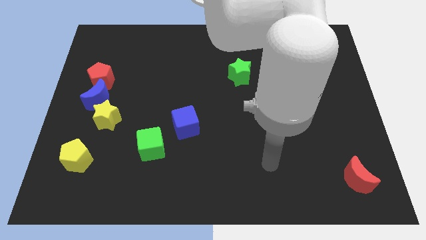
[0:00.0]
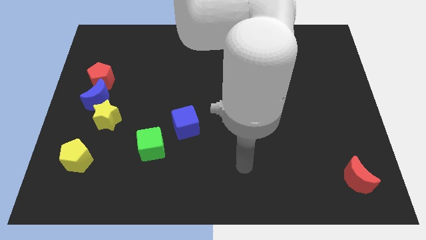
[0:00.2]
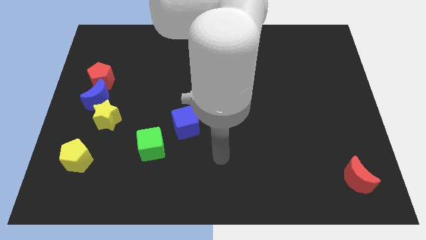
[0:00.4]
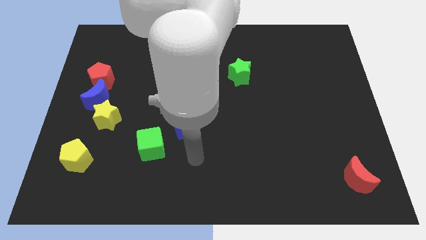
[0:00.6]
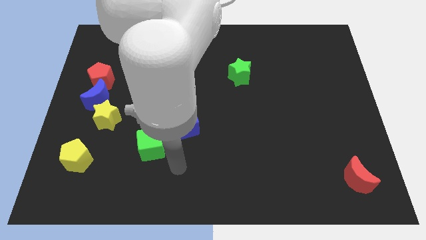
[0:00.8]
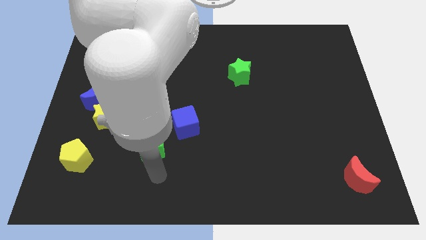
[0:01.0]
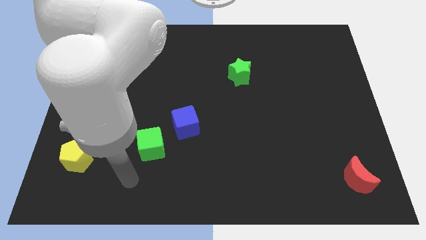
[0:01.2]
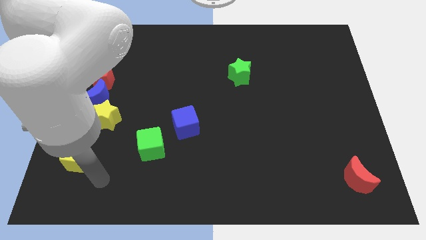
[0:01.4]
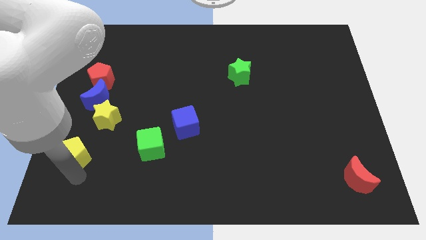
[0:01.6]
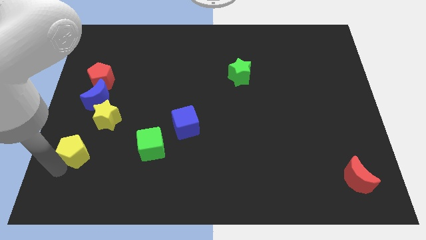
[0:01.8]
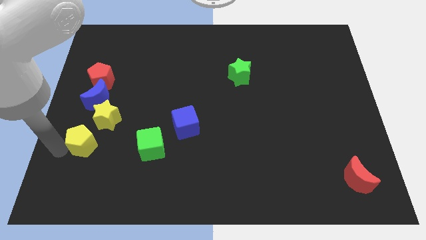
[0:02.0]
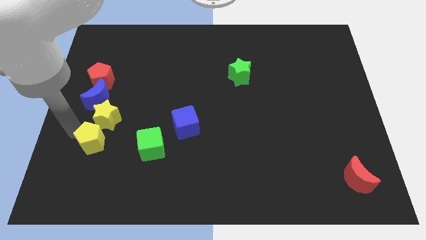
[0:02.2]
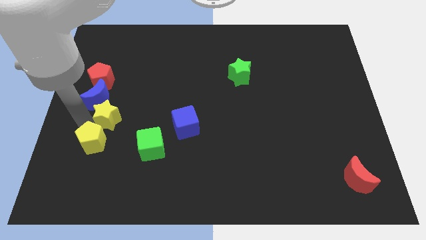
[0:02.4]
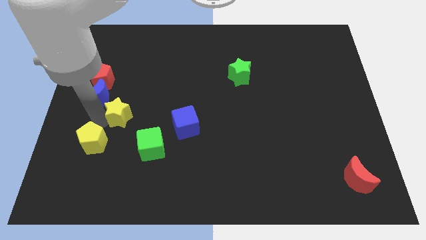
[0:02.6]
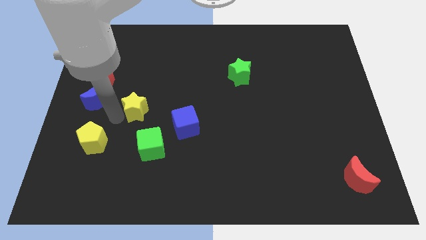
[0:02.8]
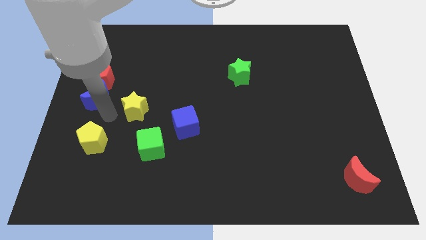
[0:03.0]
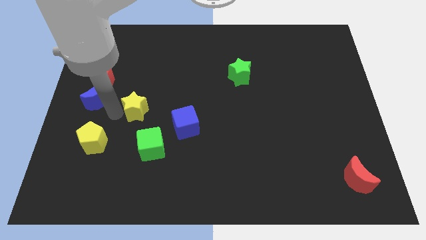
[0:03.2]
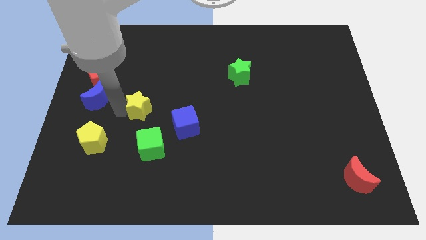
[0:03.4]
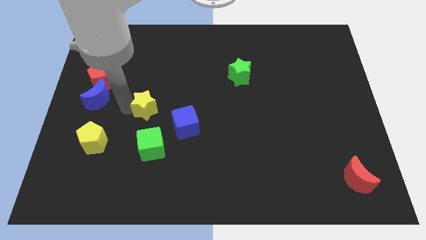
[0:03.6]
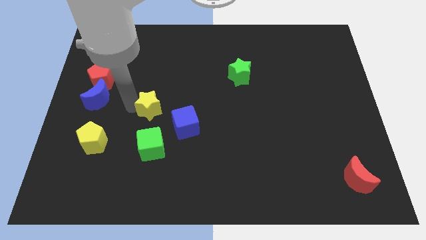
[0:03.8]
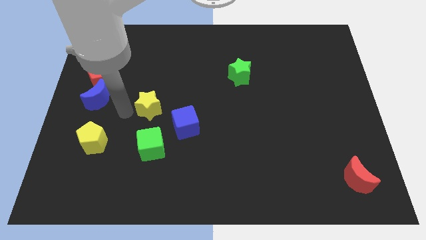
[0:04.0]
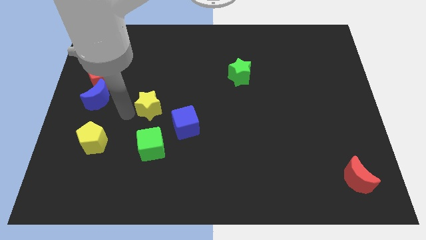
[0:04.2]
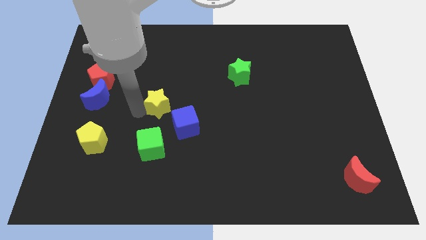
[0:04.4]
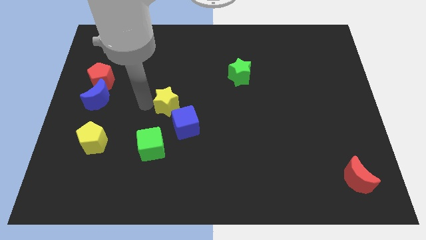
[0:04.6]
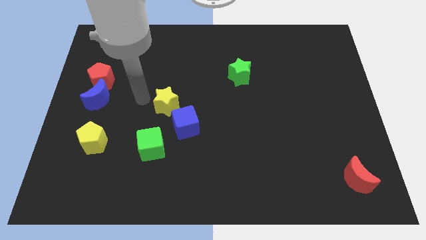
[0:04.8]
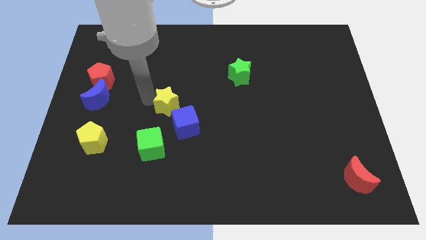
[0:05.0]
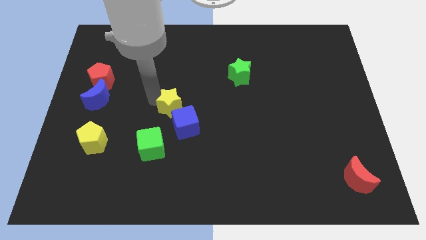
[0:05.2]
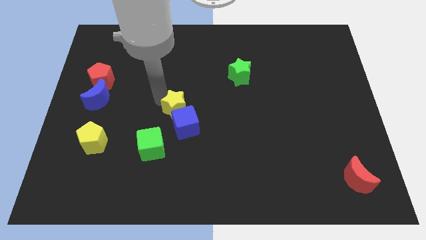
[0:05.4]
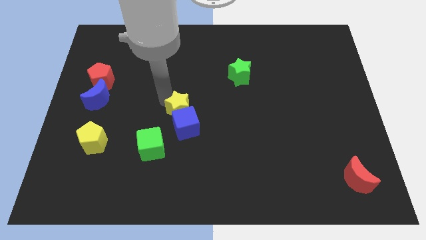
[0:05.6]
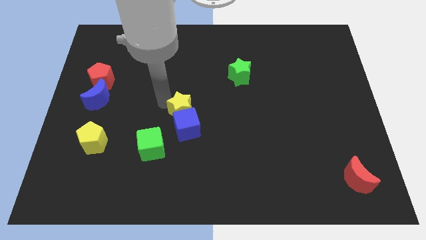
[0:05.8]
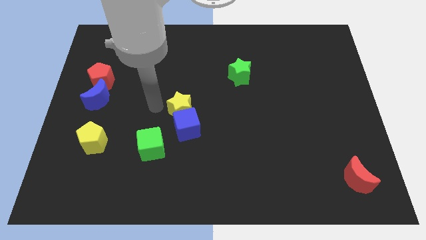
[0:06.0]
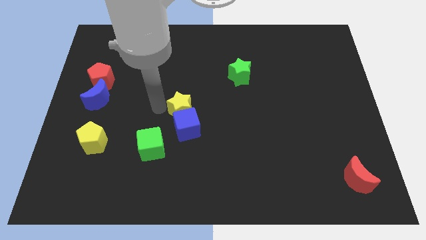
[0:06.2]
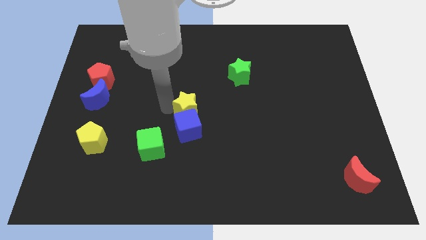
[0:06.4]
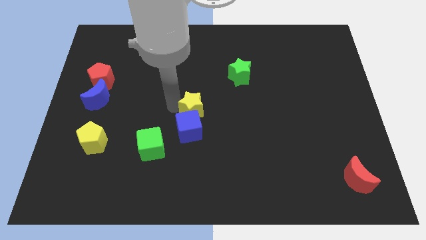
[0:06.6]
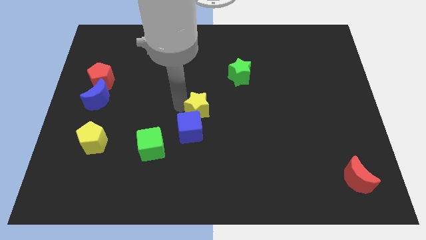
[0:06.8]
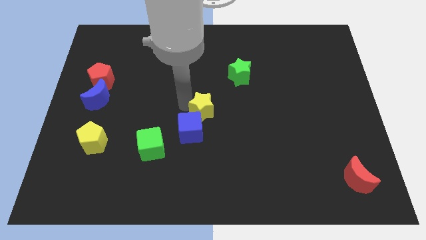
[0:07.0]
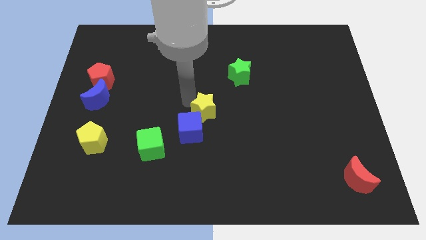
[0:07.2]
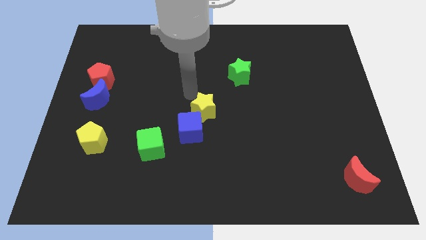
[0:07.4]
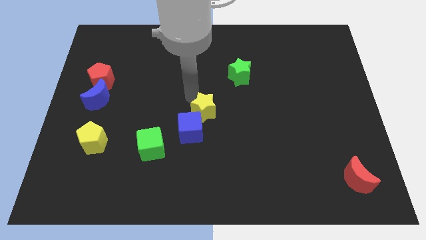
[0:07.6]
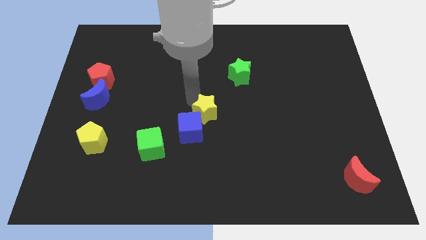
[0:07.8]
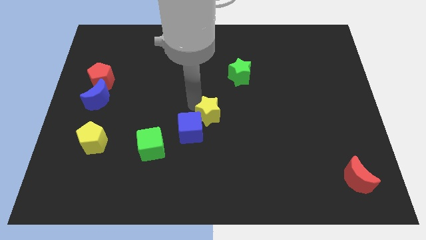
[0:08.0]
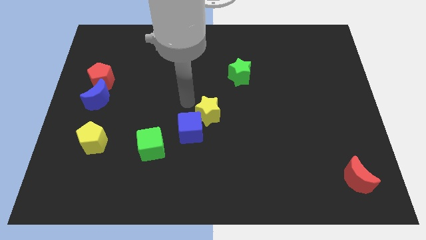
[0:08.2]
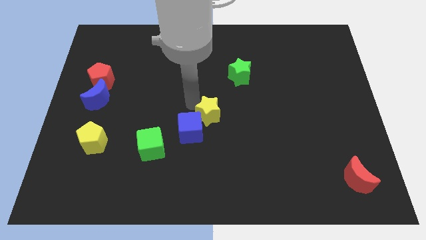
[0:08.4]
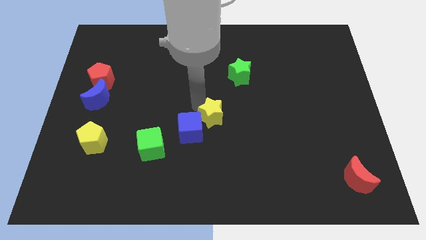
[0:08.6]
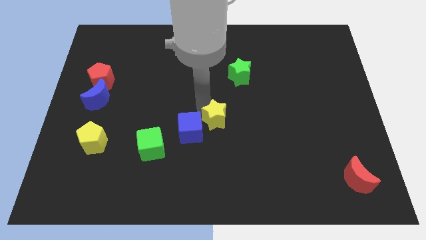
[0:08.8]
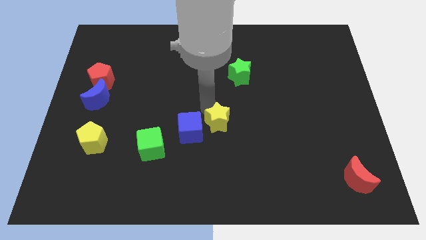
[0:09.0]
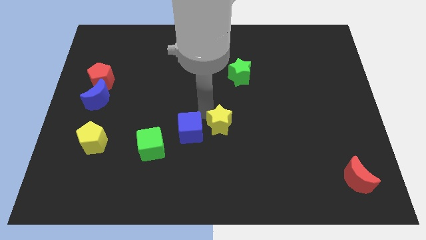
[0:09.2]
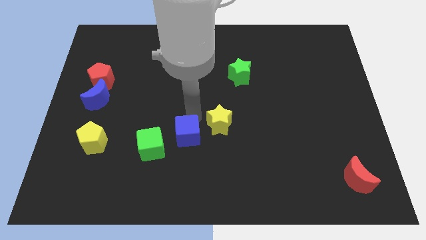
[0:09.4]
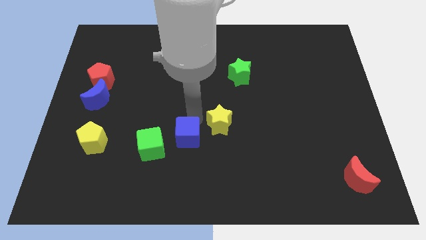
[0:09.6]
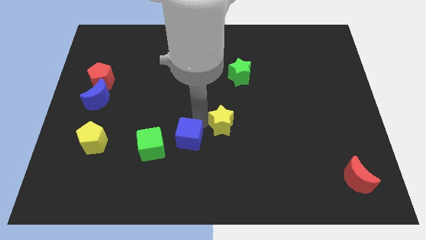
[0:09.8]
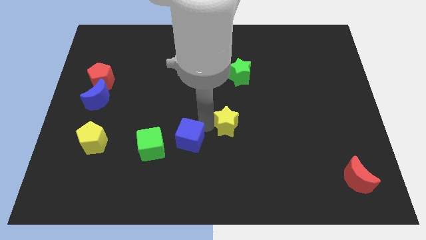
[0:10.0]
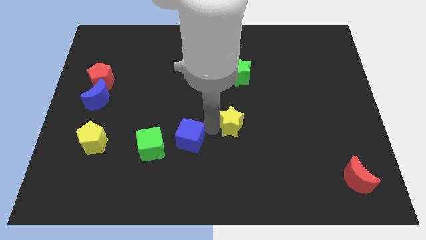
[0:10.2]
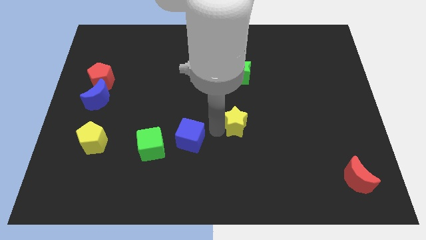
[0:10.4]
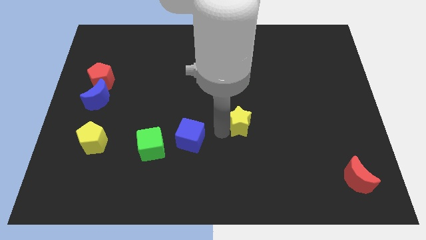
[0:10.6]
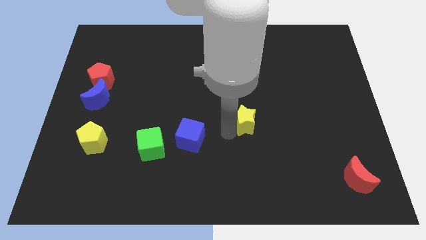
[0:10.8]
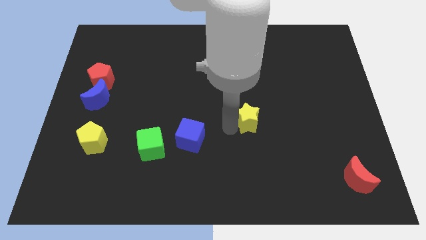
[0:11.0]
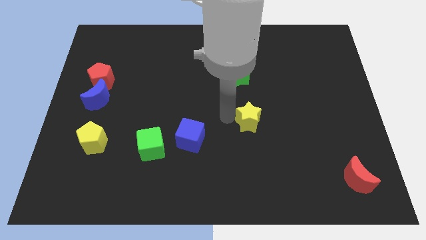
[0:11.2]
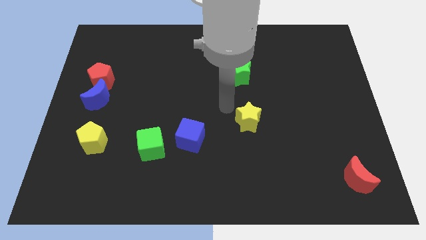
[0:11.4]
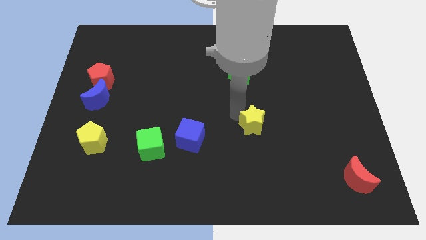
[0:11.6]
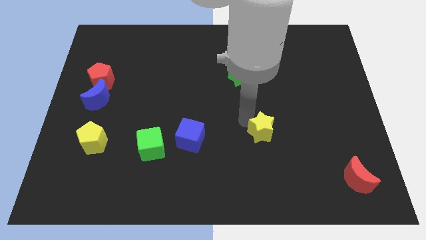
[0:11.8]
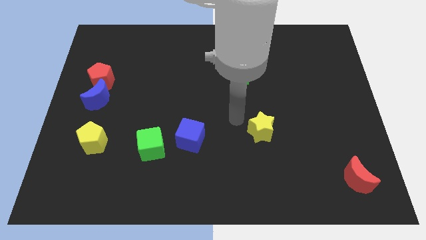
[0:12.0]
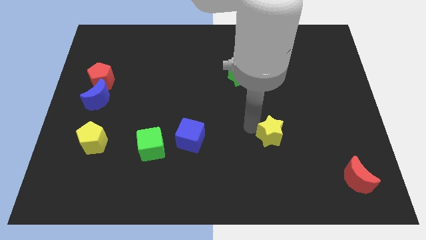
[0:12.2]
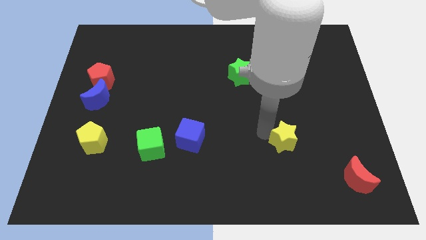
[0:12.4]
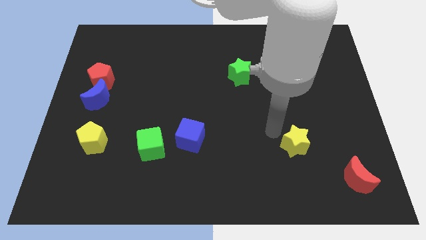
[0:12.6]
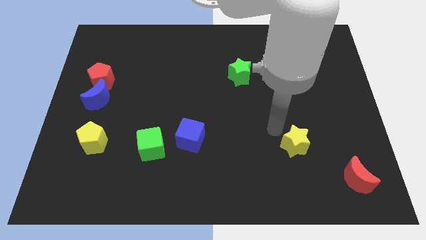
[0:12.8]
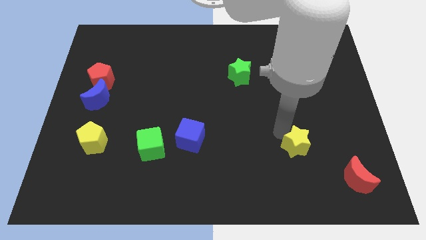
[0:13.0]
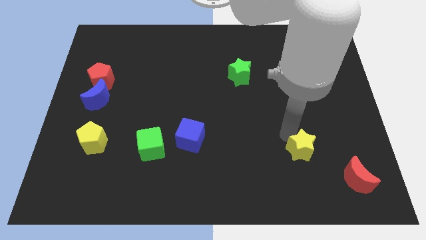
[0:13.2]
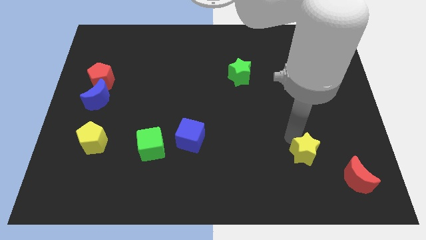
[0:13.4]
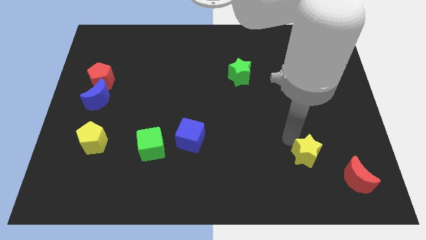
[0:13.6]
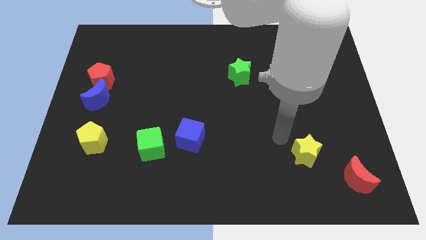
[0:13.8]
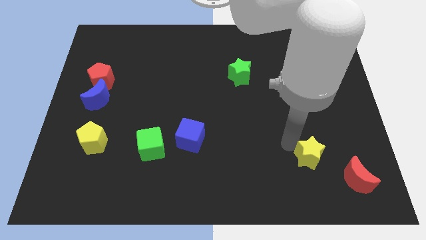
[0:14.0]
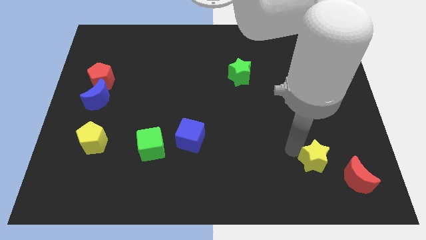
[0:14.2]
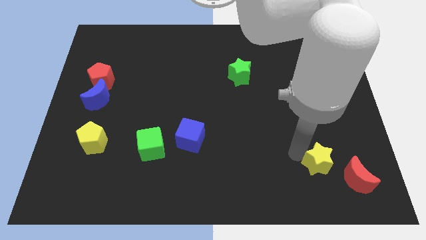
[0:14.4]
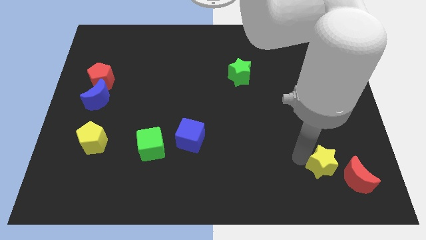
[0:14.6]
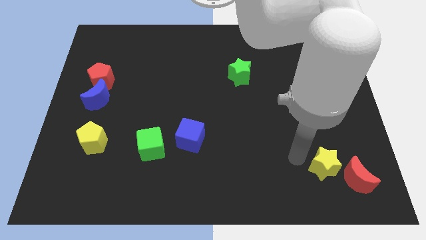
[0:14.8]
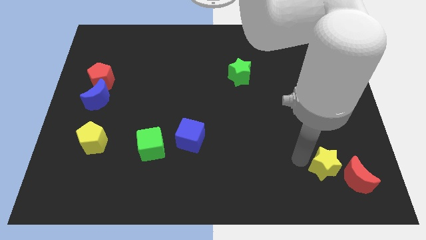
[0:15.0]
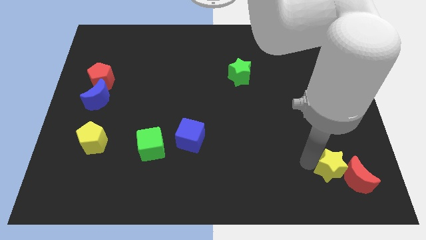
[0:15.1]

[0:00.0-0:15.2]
slide the yellow star towards the red moon

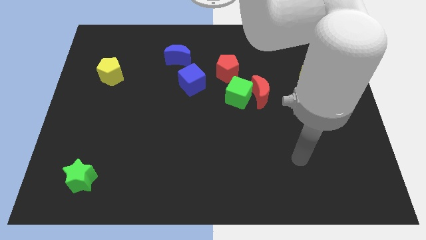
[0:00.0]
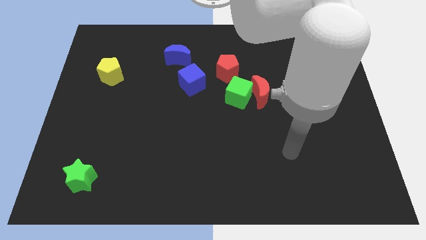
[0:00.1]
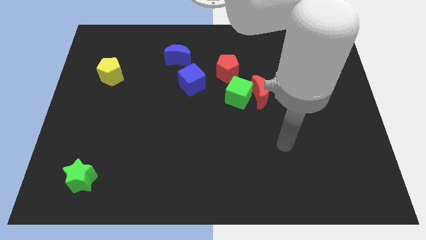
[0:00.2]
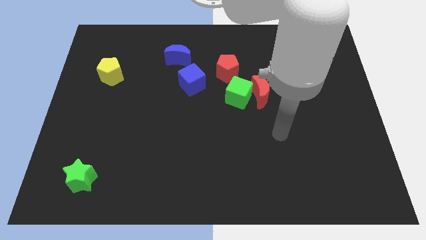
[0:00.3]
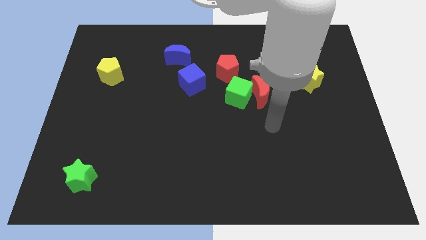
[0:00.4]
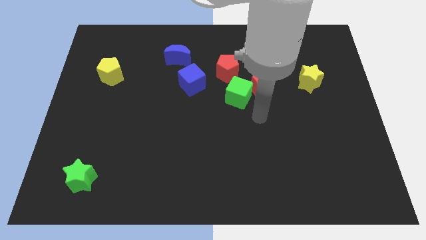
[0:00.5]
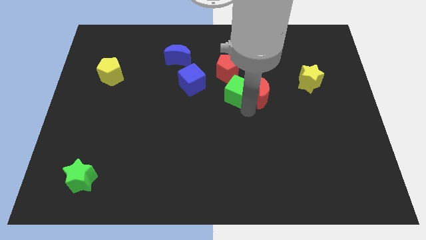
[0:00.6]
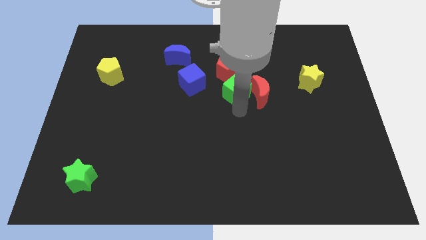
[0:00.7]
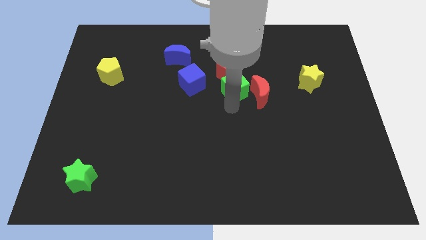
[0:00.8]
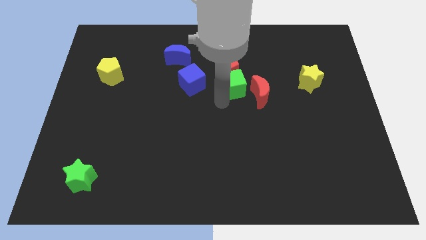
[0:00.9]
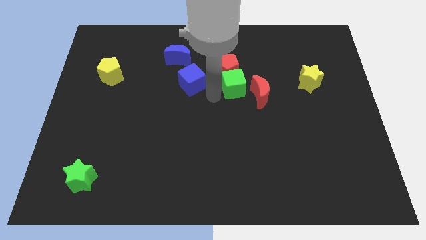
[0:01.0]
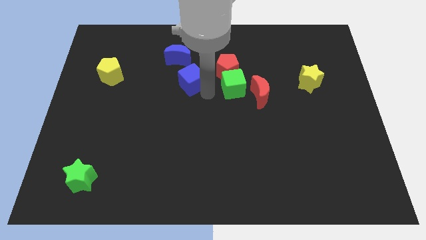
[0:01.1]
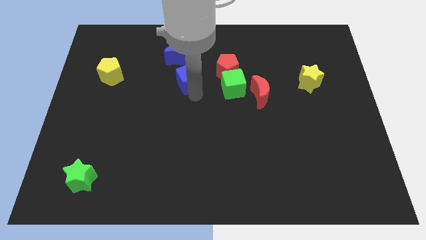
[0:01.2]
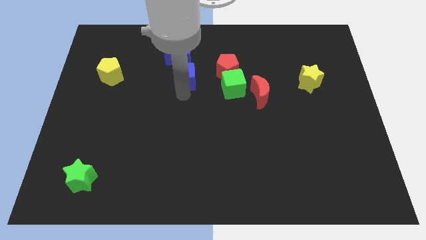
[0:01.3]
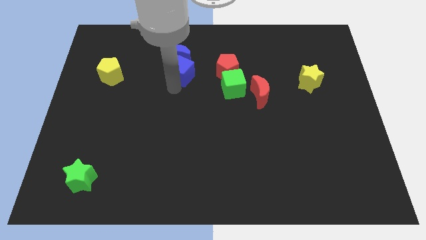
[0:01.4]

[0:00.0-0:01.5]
push the blue moon next to the blue cube
